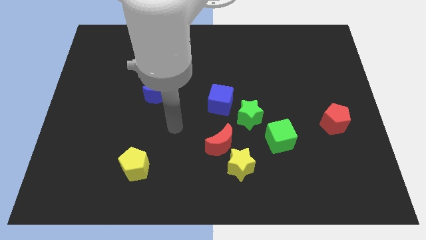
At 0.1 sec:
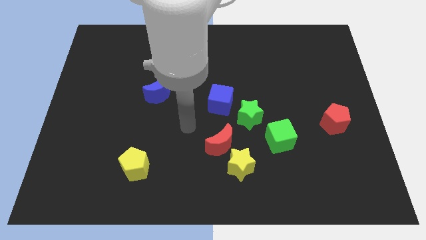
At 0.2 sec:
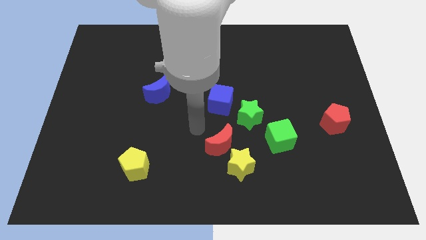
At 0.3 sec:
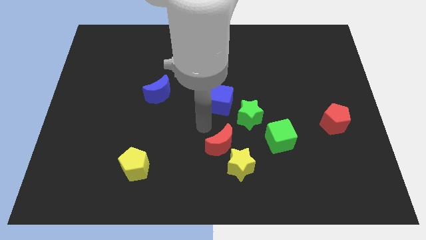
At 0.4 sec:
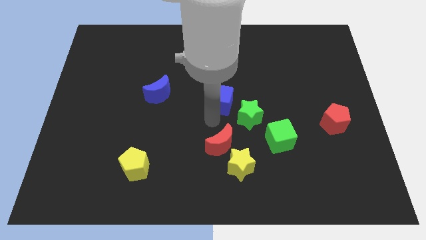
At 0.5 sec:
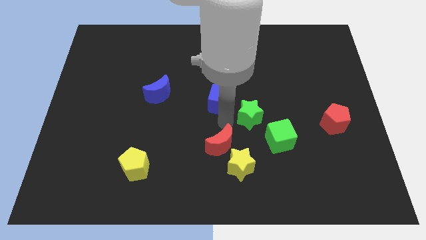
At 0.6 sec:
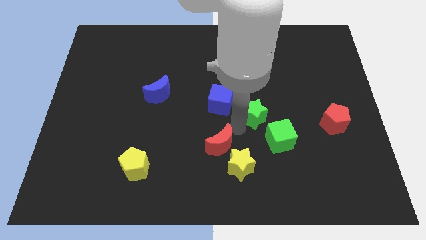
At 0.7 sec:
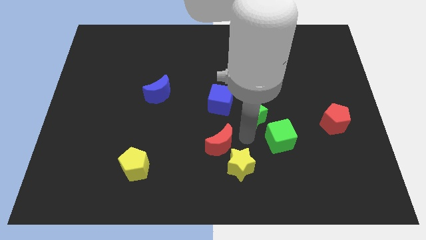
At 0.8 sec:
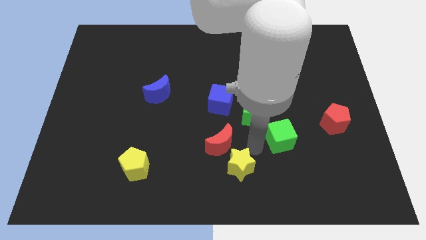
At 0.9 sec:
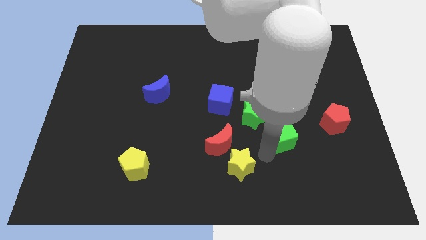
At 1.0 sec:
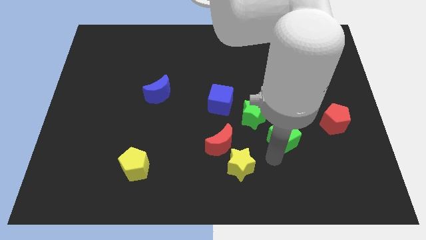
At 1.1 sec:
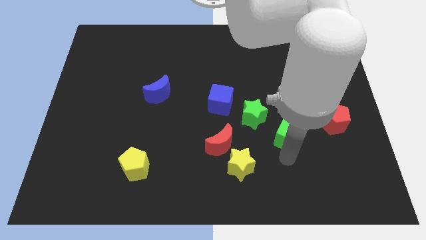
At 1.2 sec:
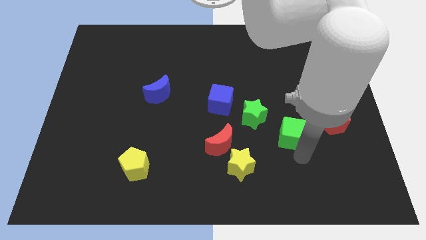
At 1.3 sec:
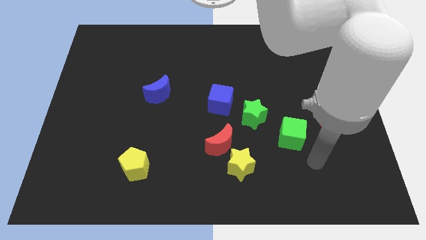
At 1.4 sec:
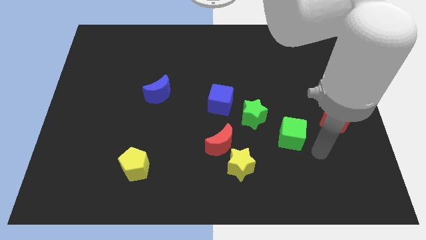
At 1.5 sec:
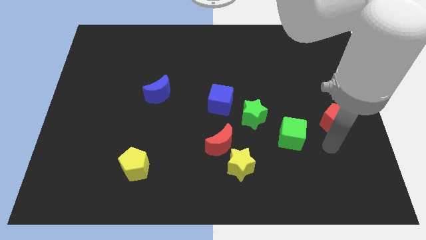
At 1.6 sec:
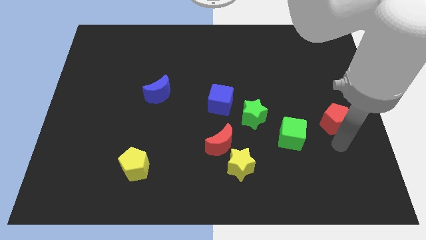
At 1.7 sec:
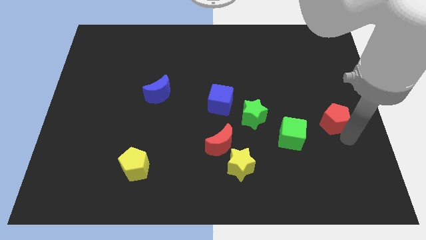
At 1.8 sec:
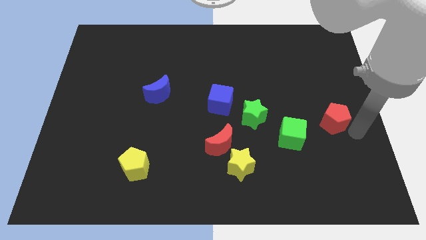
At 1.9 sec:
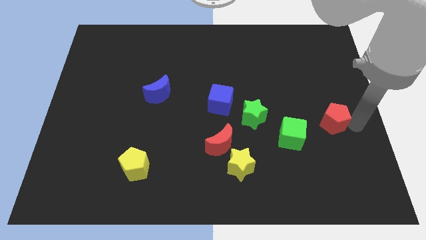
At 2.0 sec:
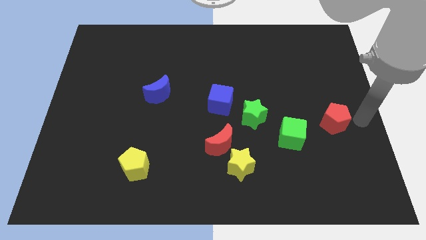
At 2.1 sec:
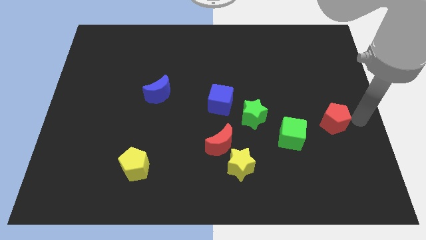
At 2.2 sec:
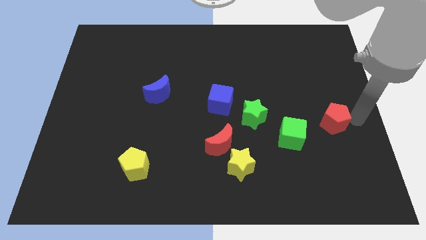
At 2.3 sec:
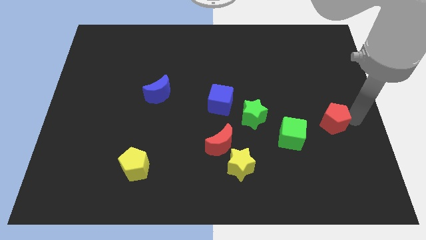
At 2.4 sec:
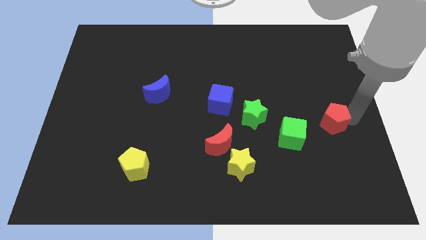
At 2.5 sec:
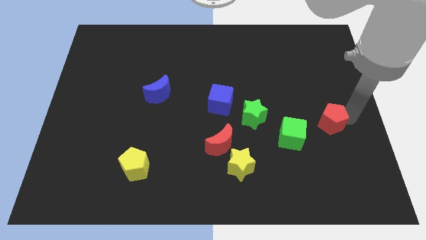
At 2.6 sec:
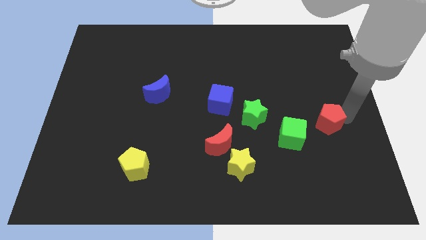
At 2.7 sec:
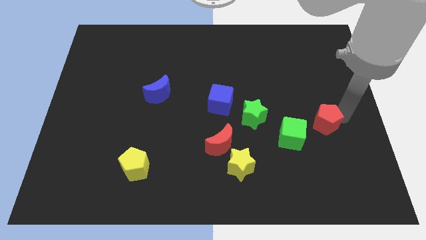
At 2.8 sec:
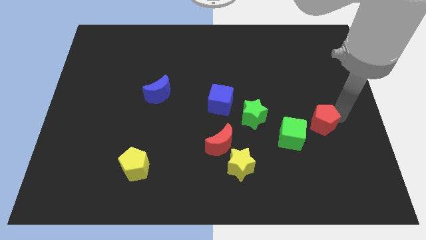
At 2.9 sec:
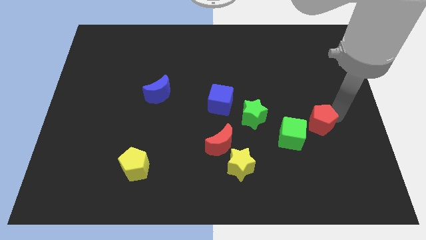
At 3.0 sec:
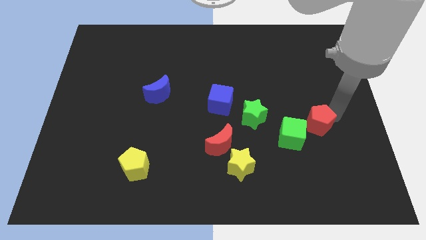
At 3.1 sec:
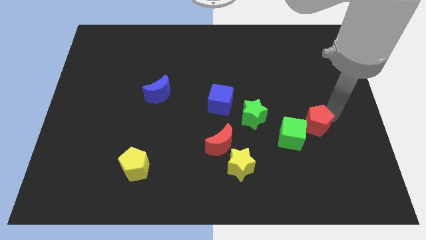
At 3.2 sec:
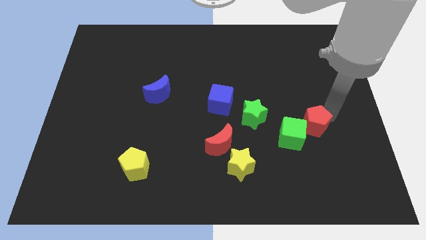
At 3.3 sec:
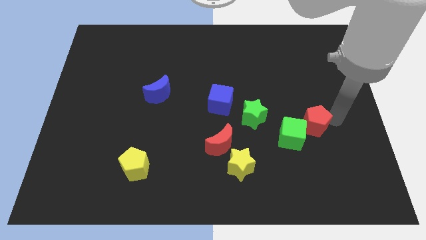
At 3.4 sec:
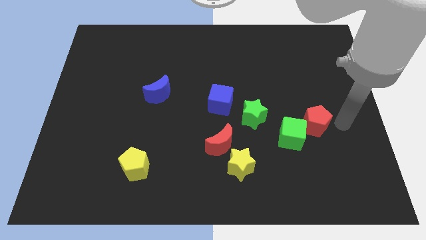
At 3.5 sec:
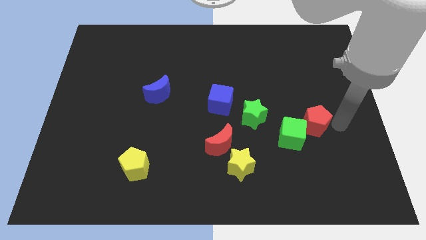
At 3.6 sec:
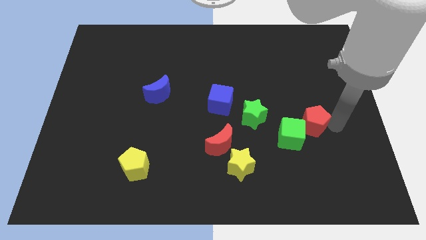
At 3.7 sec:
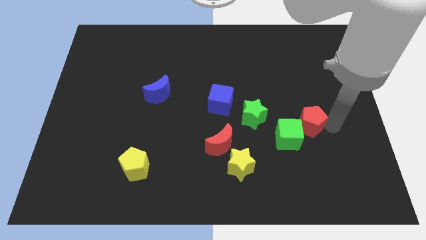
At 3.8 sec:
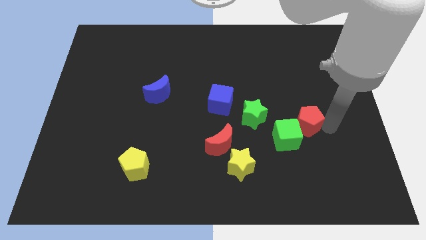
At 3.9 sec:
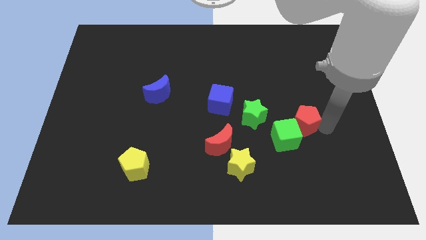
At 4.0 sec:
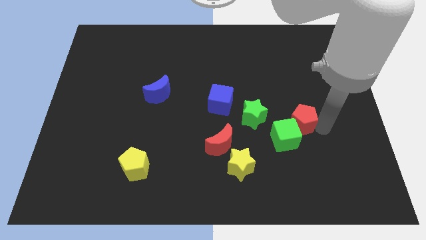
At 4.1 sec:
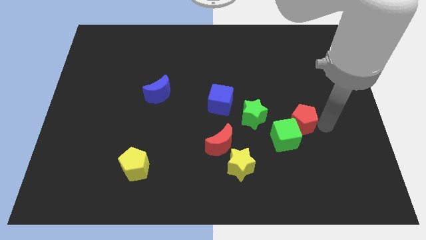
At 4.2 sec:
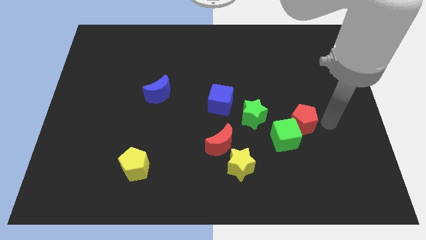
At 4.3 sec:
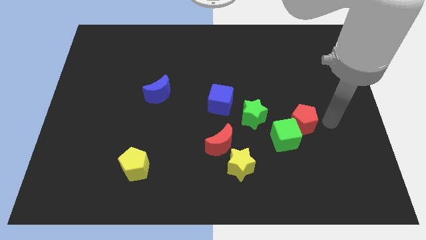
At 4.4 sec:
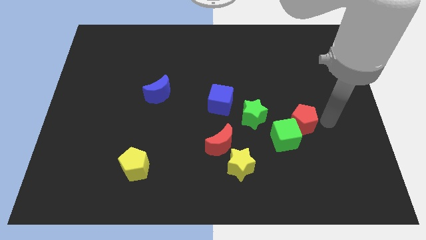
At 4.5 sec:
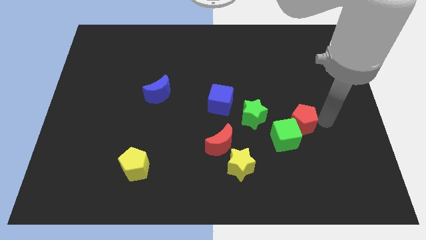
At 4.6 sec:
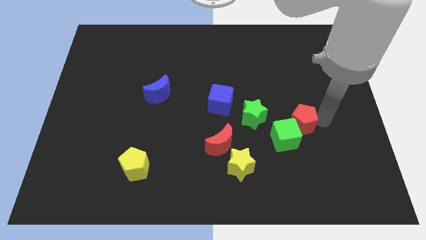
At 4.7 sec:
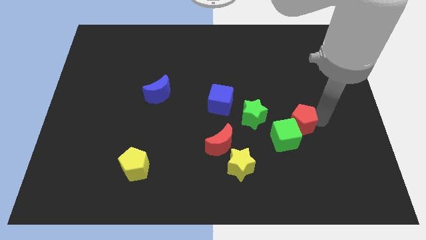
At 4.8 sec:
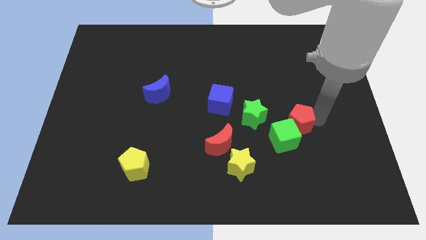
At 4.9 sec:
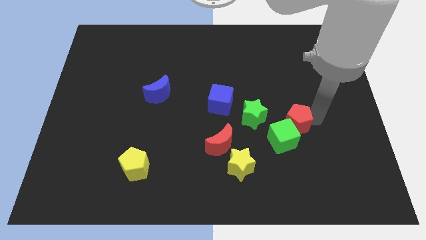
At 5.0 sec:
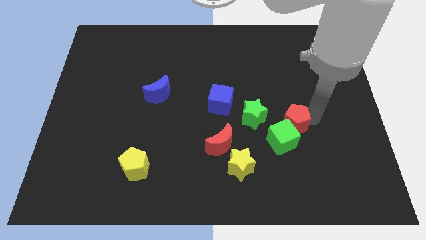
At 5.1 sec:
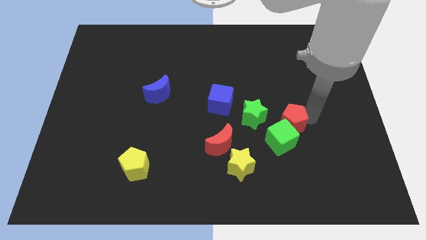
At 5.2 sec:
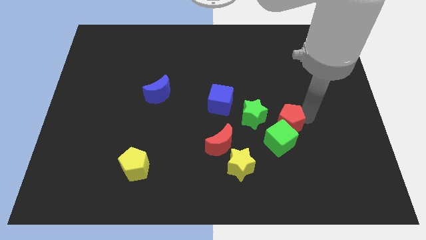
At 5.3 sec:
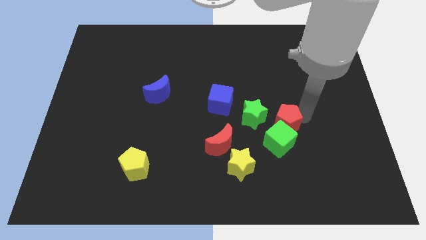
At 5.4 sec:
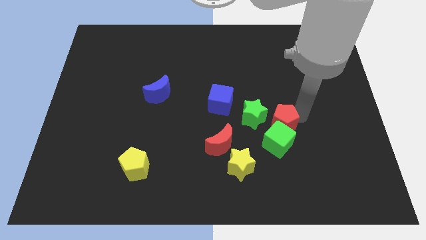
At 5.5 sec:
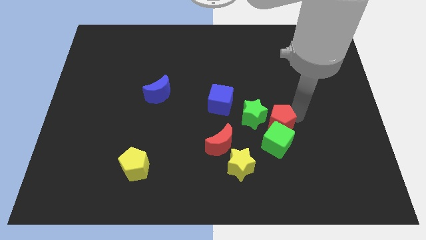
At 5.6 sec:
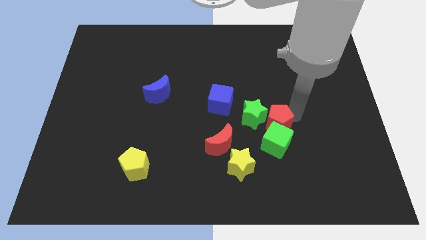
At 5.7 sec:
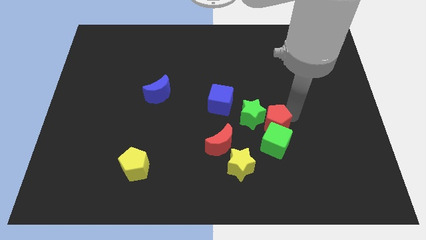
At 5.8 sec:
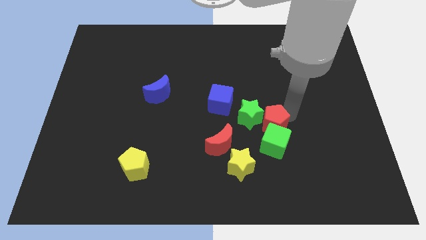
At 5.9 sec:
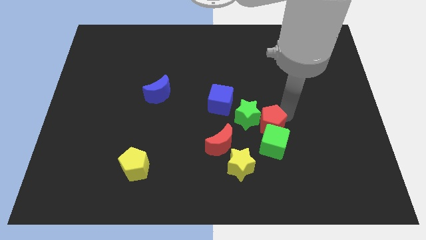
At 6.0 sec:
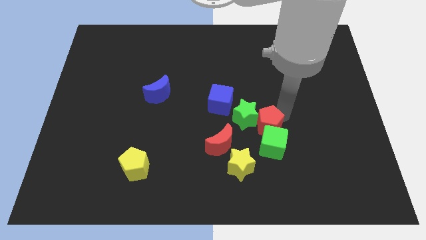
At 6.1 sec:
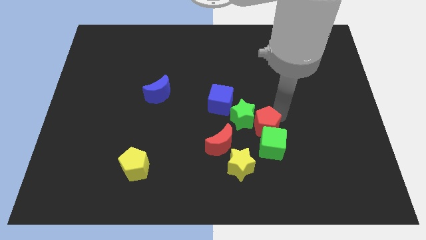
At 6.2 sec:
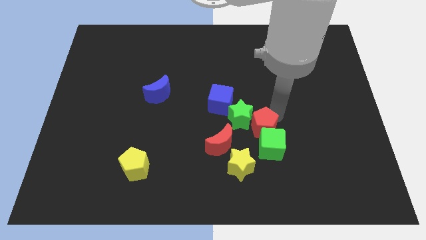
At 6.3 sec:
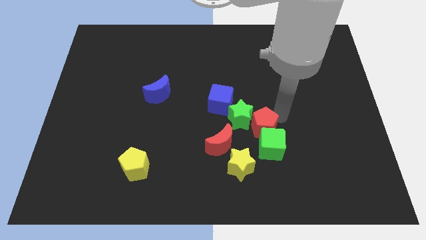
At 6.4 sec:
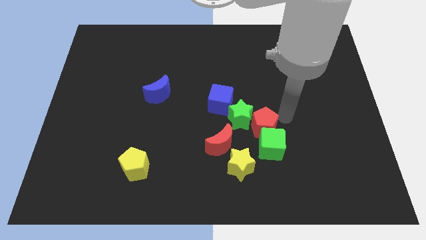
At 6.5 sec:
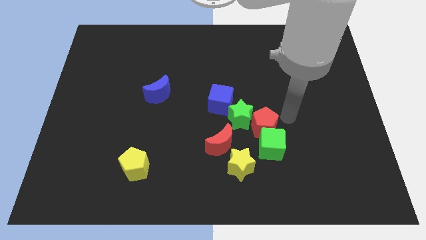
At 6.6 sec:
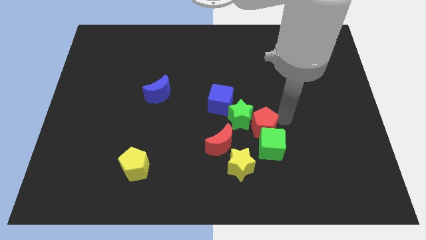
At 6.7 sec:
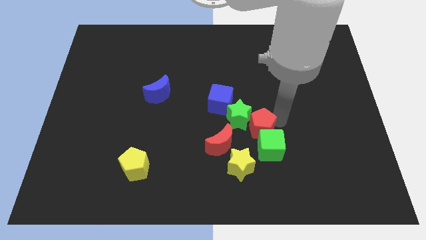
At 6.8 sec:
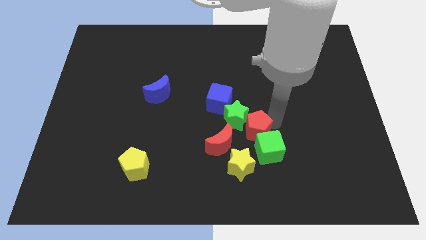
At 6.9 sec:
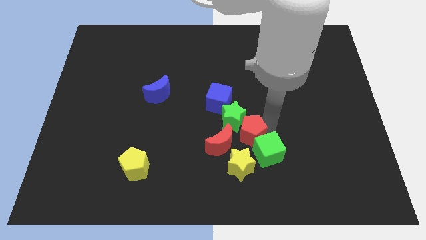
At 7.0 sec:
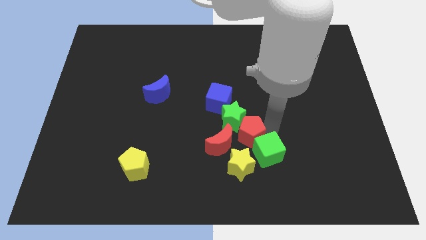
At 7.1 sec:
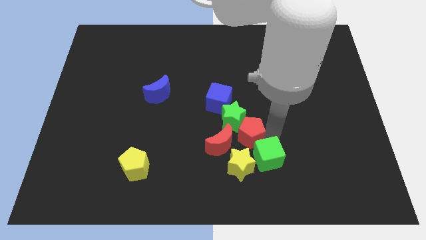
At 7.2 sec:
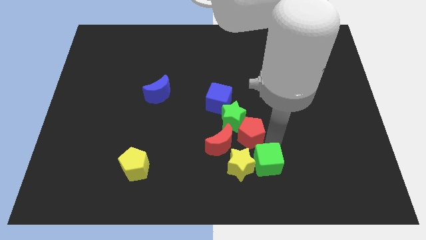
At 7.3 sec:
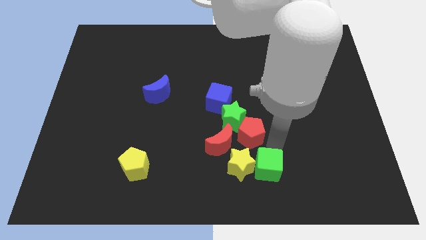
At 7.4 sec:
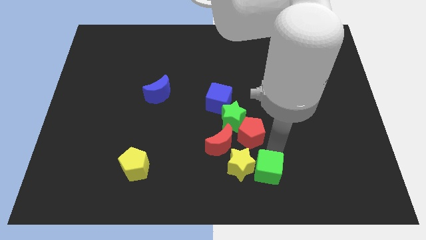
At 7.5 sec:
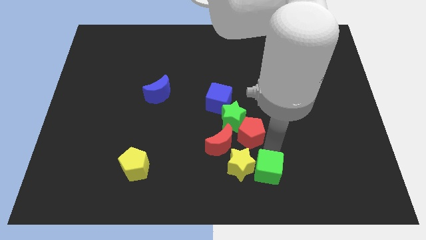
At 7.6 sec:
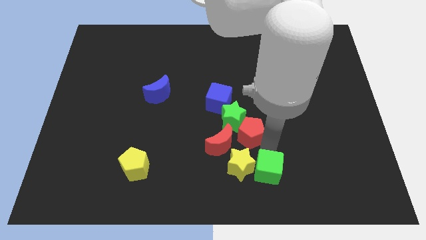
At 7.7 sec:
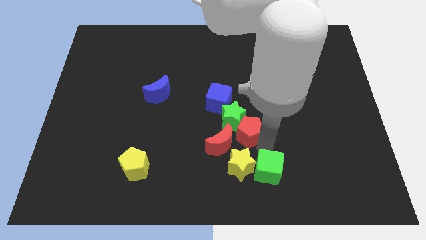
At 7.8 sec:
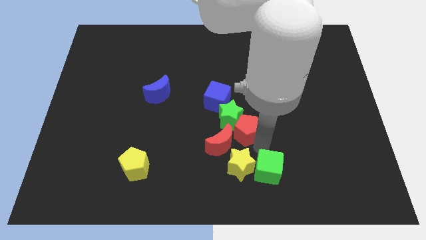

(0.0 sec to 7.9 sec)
slide the red pentagon to the left
